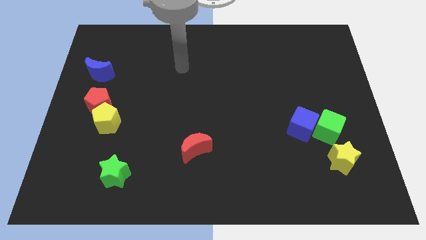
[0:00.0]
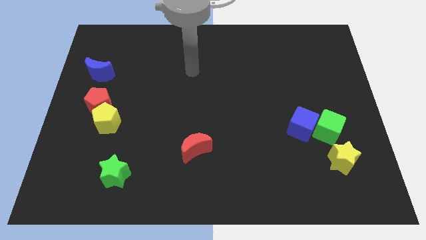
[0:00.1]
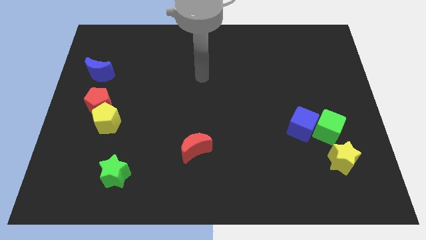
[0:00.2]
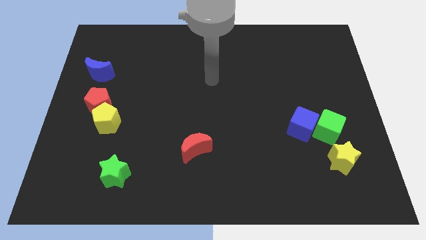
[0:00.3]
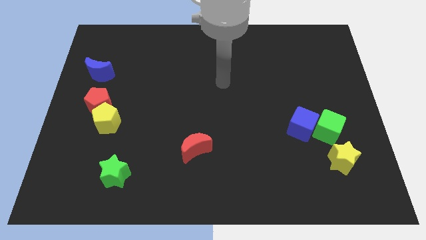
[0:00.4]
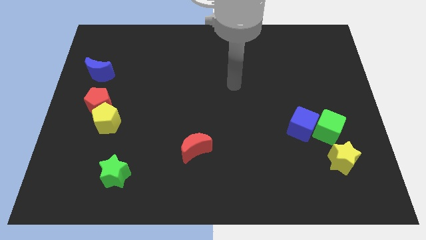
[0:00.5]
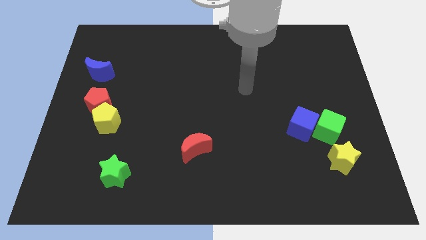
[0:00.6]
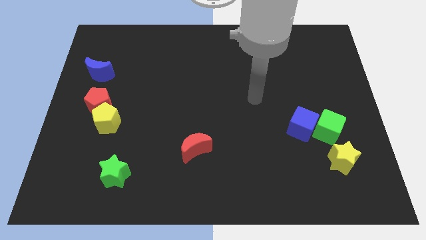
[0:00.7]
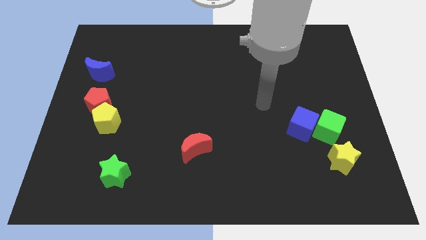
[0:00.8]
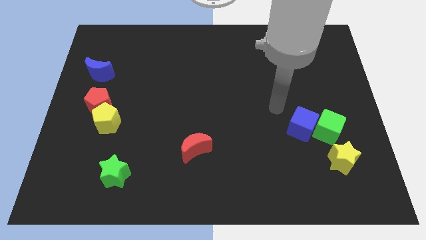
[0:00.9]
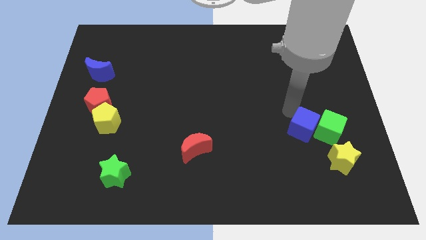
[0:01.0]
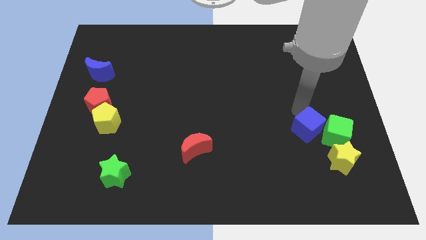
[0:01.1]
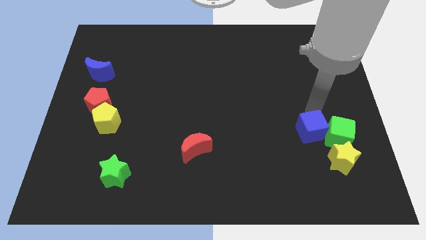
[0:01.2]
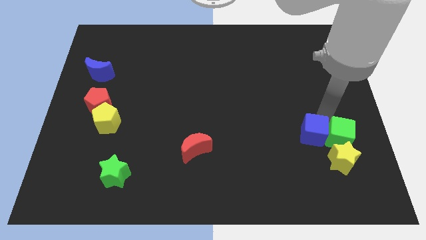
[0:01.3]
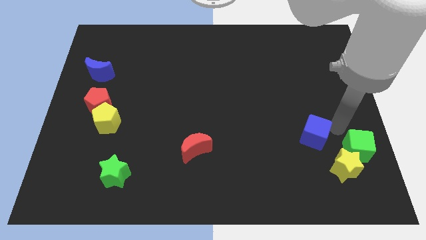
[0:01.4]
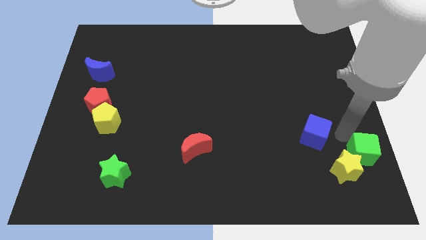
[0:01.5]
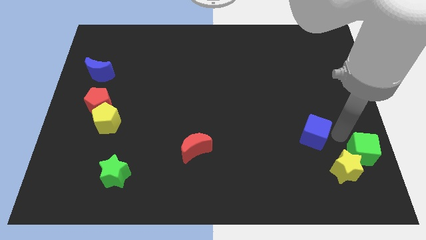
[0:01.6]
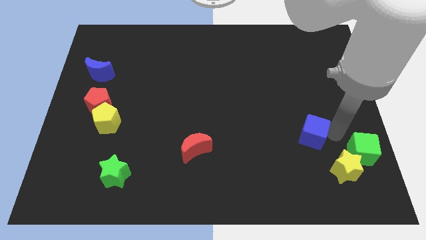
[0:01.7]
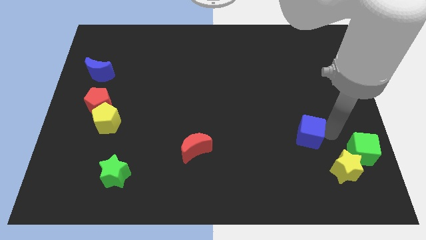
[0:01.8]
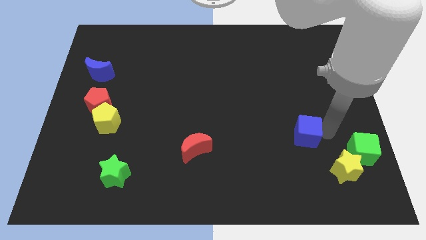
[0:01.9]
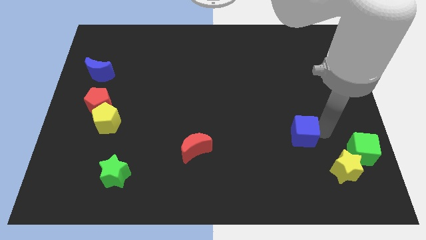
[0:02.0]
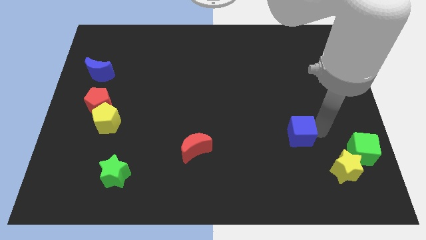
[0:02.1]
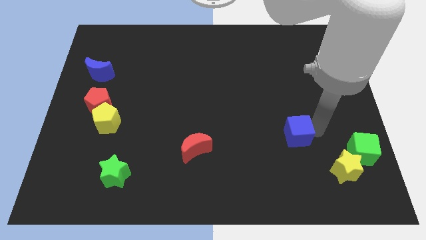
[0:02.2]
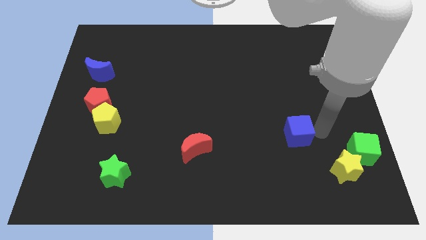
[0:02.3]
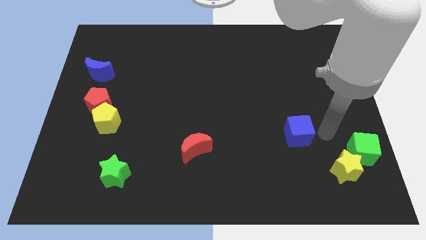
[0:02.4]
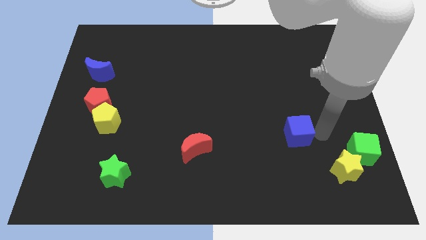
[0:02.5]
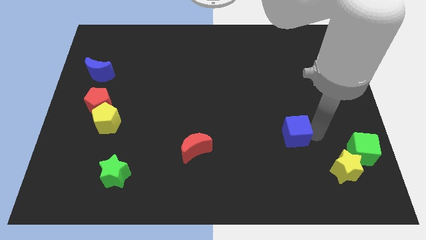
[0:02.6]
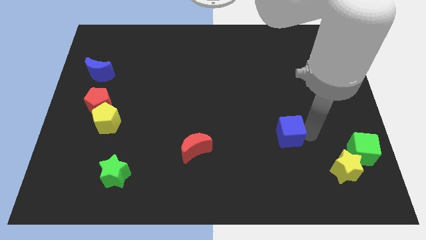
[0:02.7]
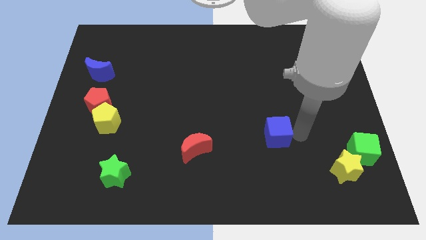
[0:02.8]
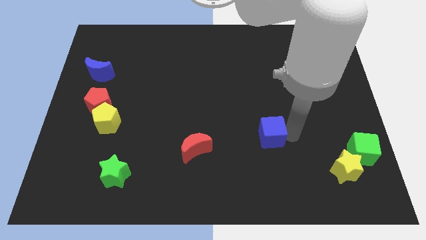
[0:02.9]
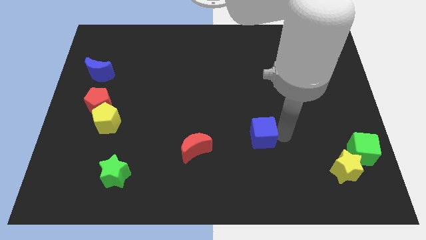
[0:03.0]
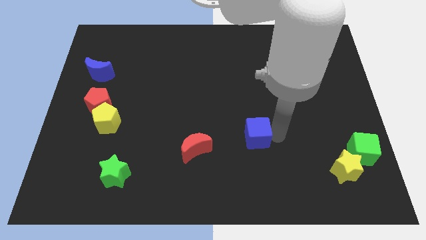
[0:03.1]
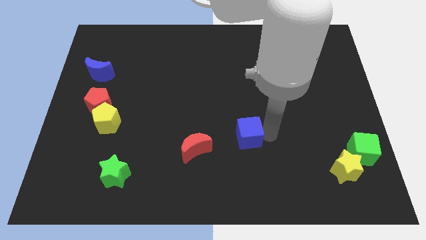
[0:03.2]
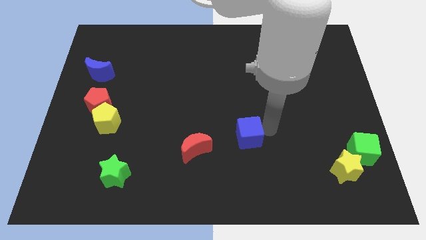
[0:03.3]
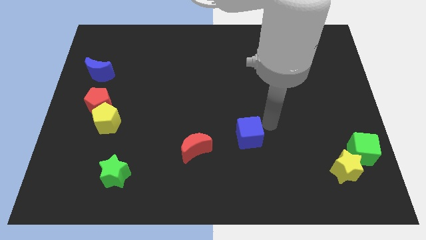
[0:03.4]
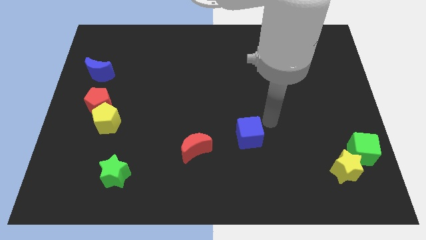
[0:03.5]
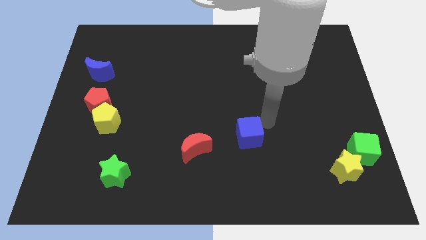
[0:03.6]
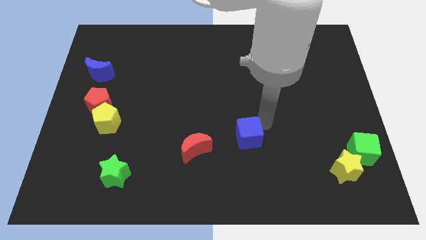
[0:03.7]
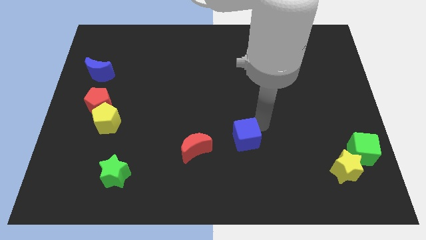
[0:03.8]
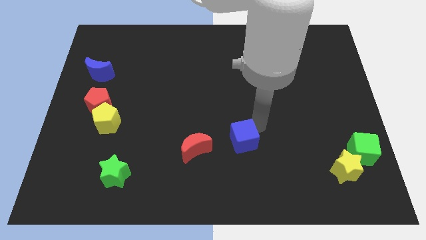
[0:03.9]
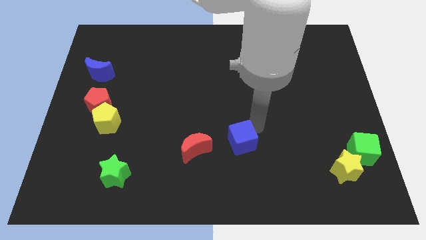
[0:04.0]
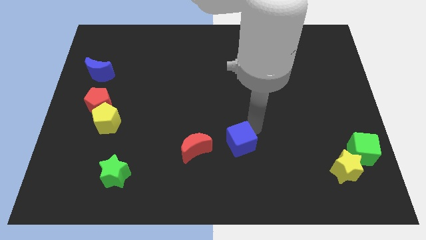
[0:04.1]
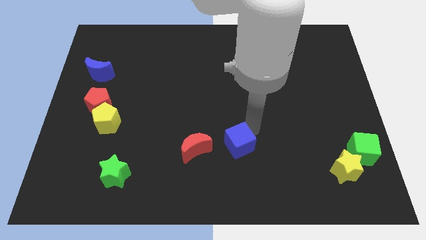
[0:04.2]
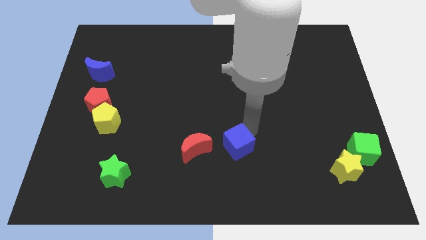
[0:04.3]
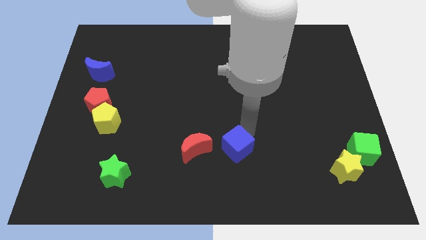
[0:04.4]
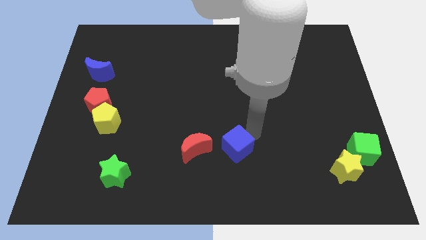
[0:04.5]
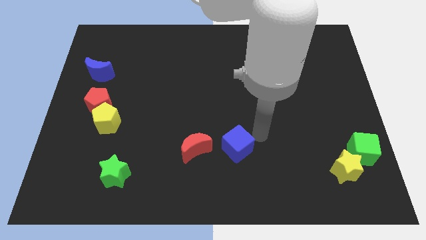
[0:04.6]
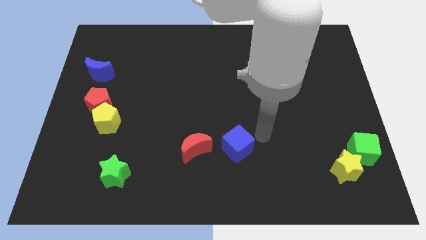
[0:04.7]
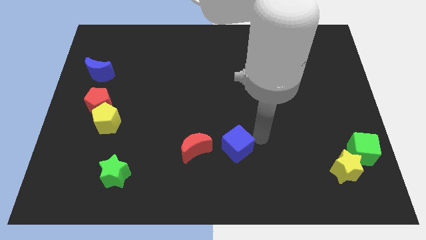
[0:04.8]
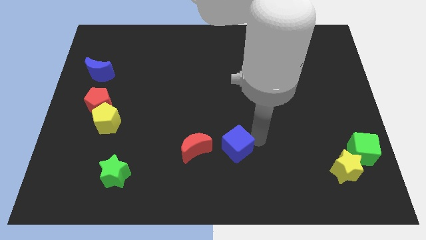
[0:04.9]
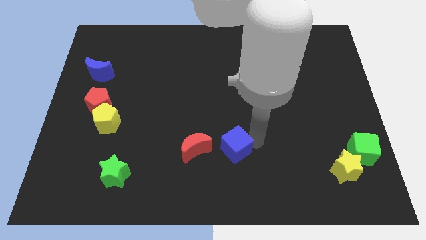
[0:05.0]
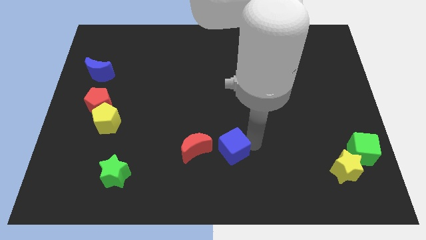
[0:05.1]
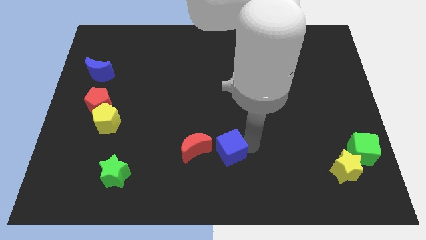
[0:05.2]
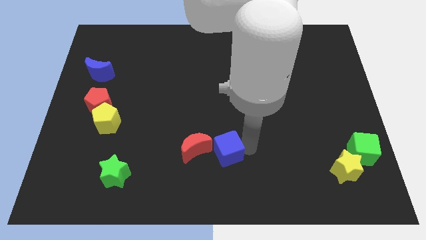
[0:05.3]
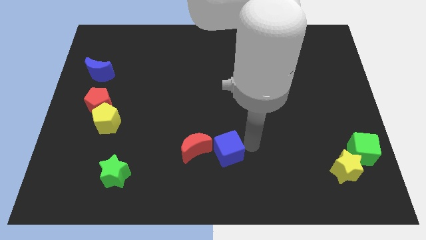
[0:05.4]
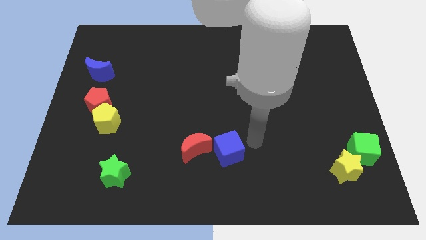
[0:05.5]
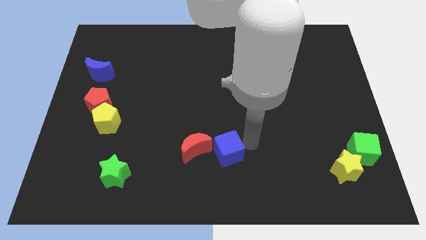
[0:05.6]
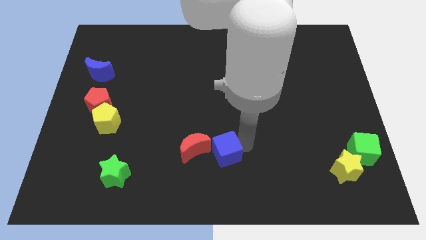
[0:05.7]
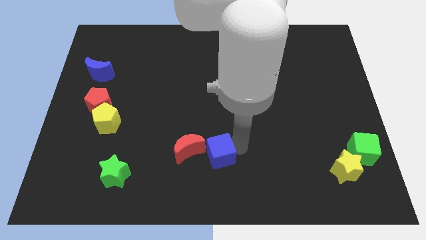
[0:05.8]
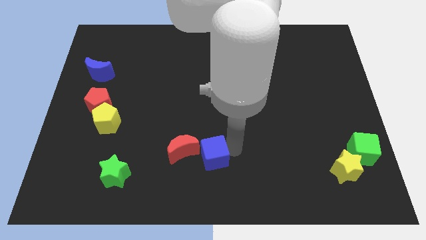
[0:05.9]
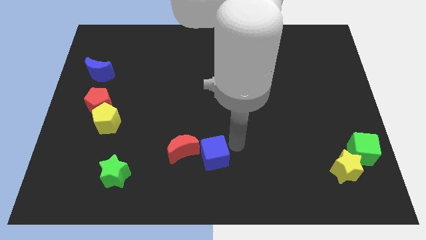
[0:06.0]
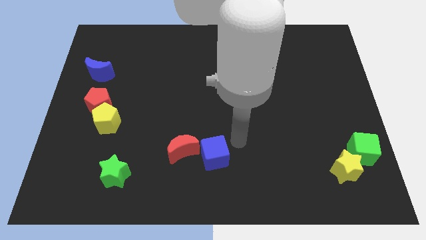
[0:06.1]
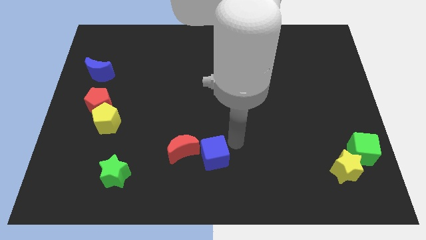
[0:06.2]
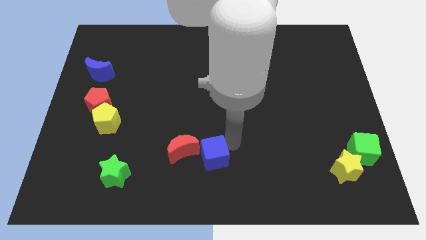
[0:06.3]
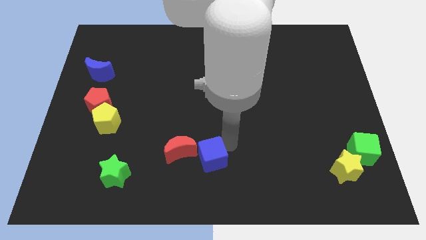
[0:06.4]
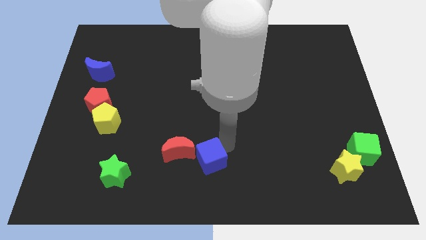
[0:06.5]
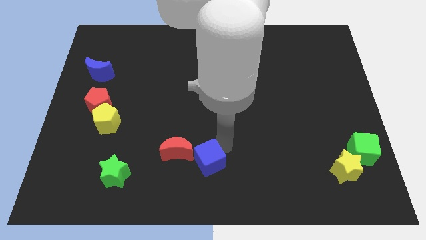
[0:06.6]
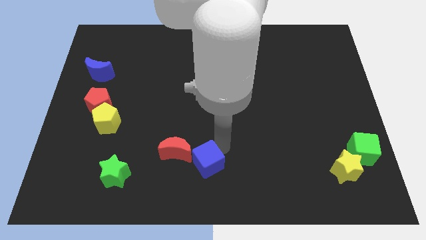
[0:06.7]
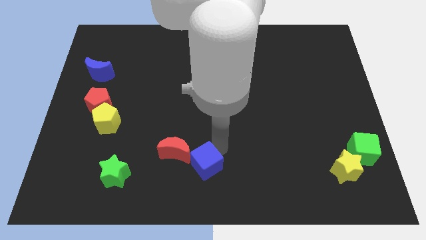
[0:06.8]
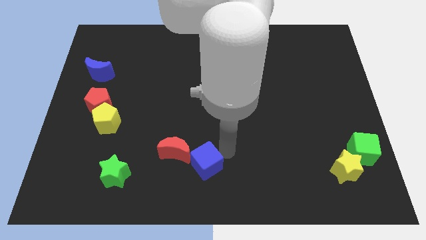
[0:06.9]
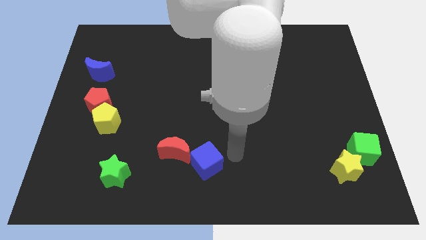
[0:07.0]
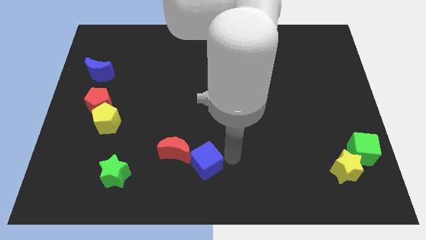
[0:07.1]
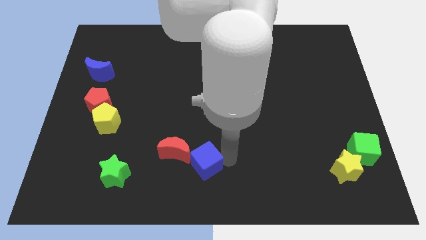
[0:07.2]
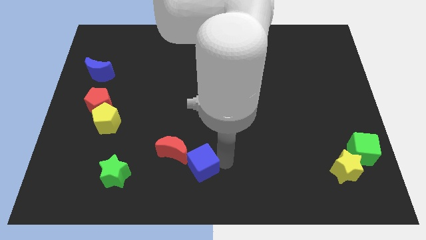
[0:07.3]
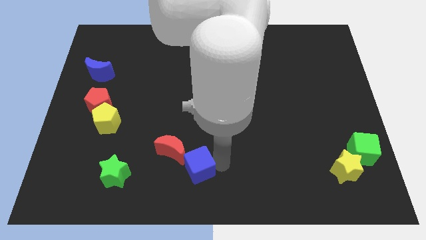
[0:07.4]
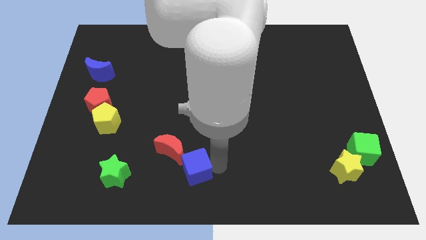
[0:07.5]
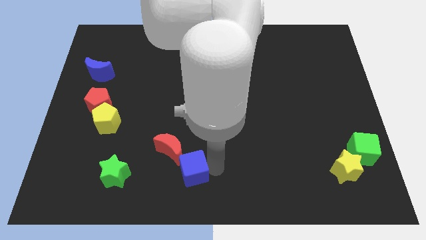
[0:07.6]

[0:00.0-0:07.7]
move the blue cube to the right of the green star
